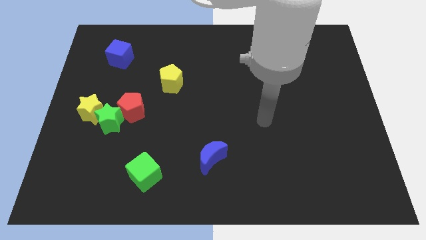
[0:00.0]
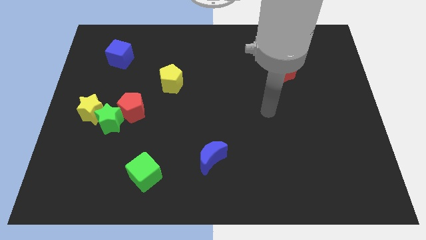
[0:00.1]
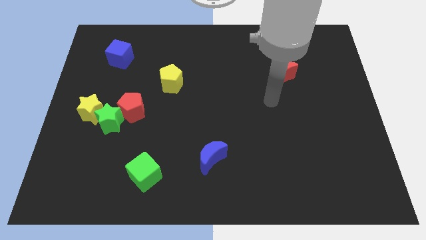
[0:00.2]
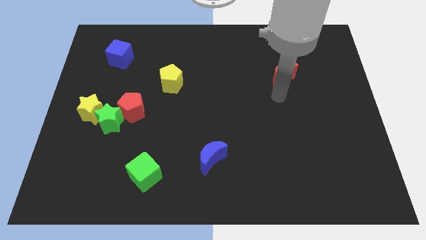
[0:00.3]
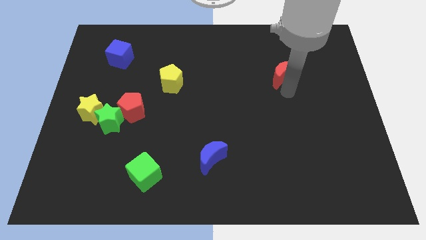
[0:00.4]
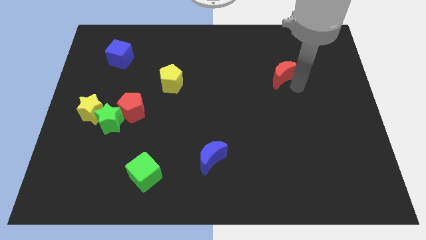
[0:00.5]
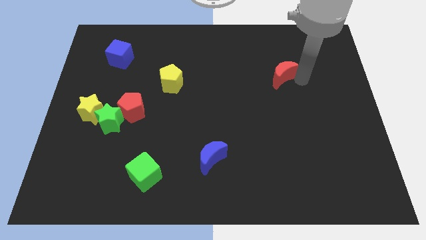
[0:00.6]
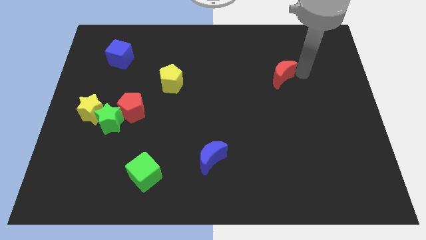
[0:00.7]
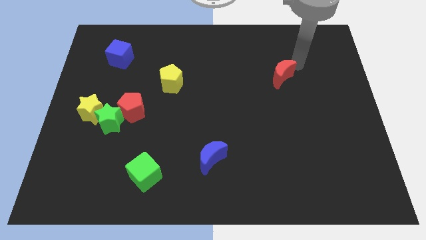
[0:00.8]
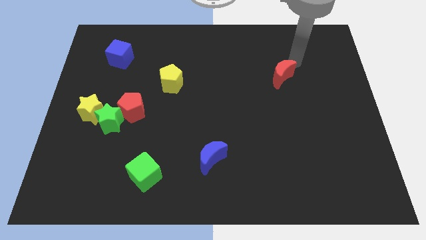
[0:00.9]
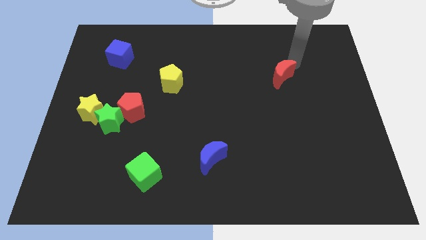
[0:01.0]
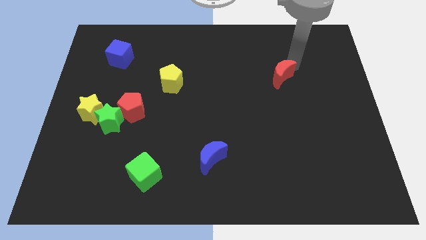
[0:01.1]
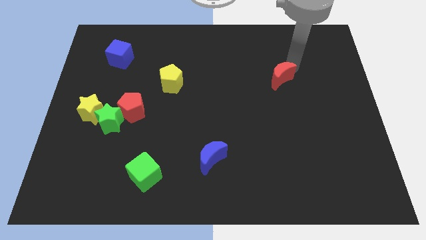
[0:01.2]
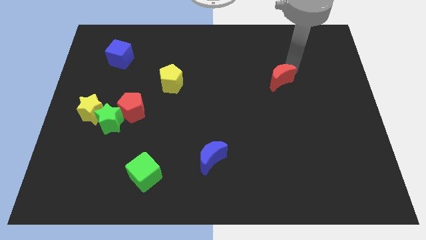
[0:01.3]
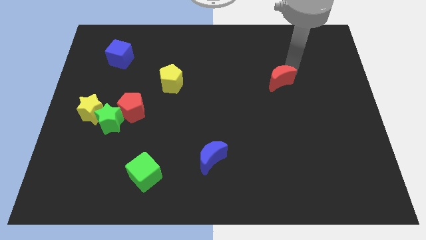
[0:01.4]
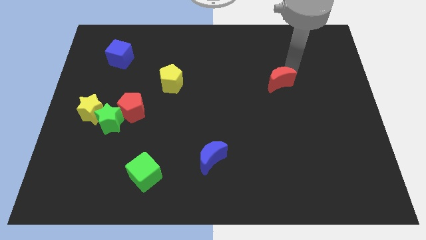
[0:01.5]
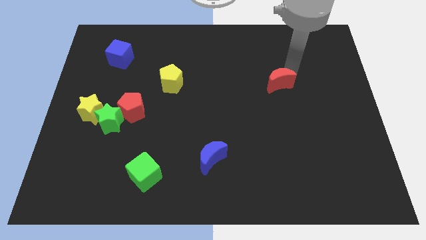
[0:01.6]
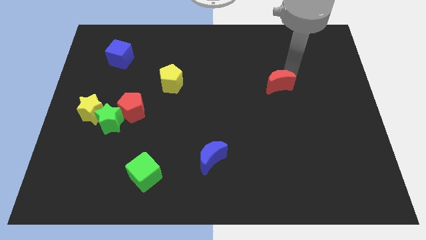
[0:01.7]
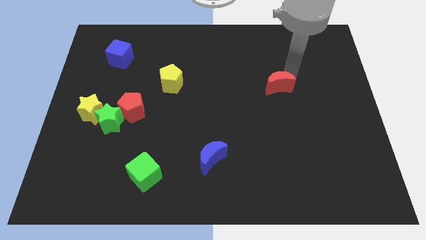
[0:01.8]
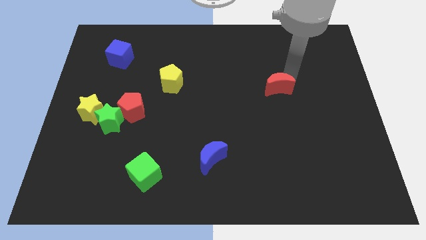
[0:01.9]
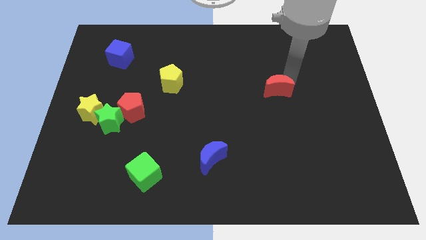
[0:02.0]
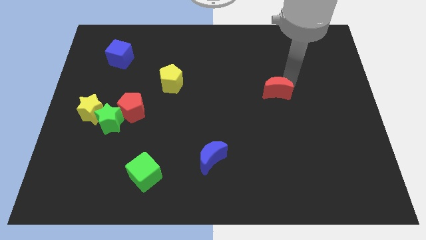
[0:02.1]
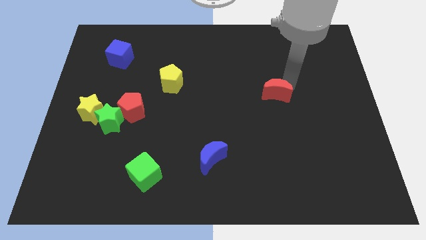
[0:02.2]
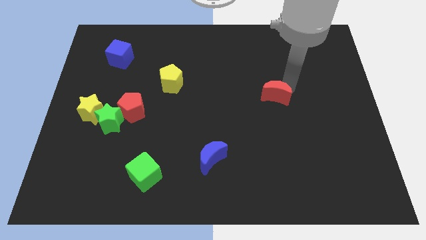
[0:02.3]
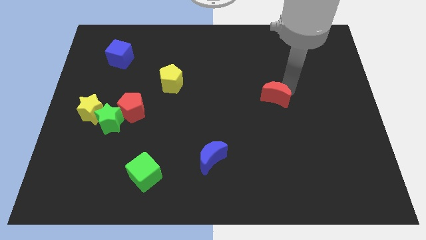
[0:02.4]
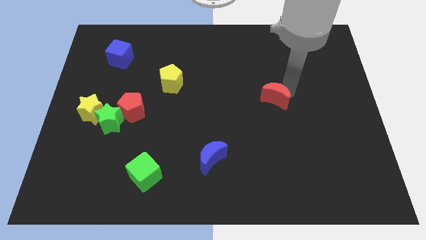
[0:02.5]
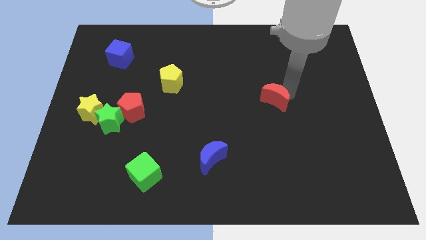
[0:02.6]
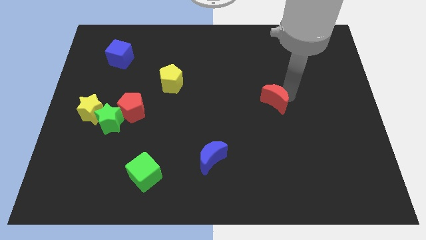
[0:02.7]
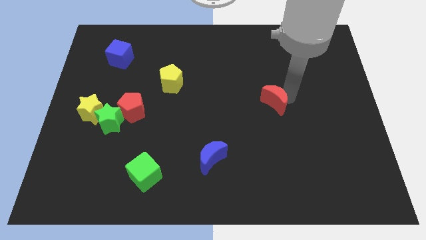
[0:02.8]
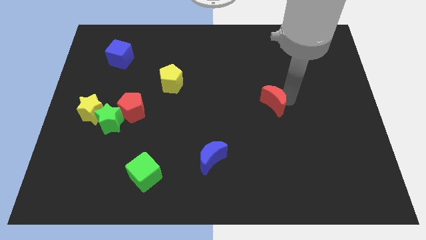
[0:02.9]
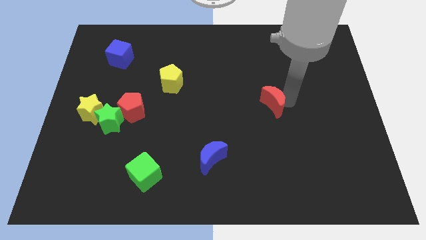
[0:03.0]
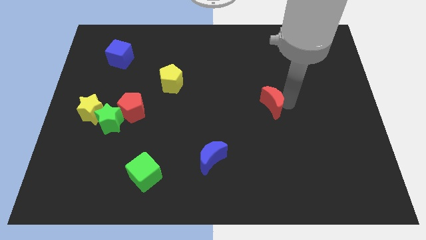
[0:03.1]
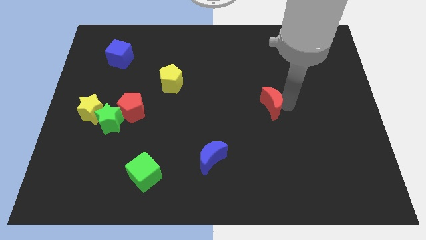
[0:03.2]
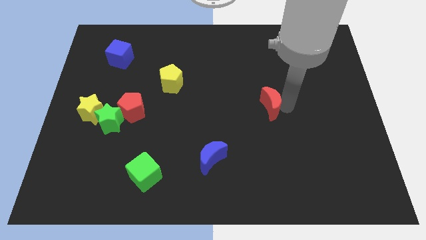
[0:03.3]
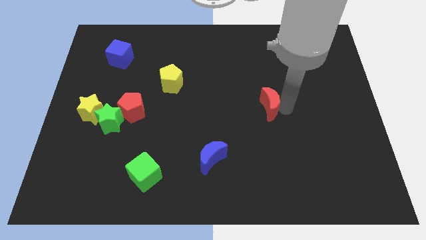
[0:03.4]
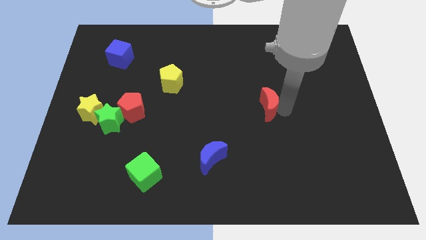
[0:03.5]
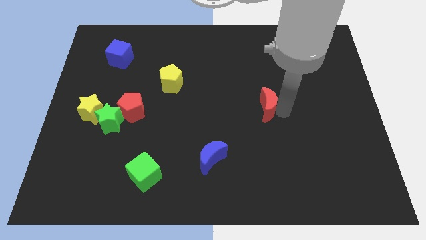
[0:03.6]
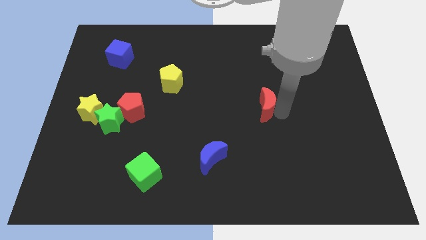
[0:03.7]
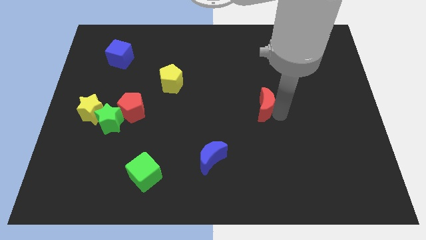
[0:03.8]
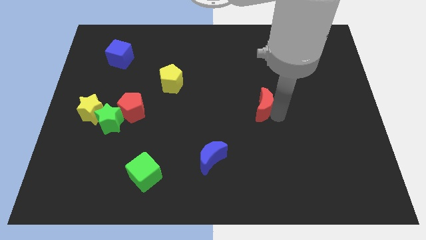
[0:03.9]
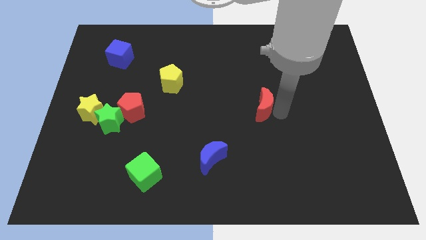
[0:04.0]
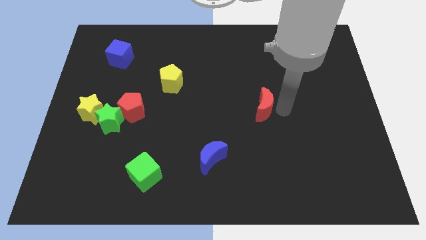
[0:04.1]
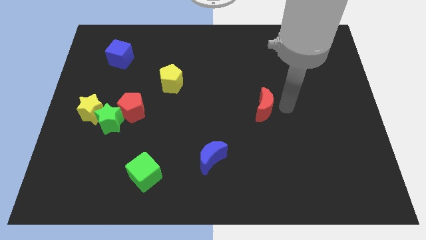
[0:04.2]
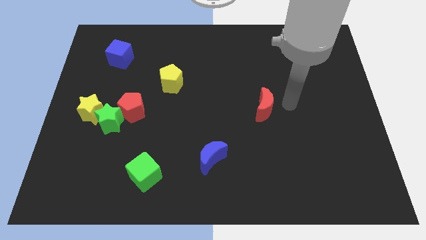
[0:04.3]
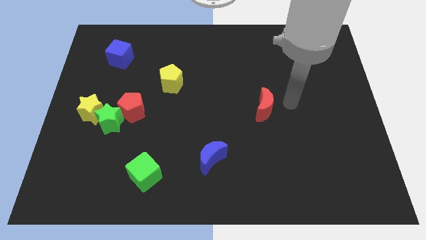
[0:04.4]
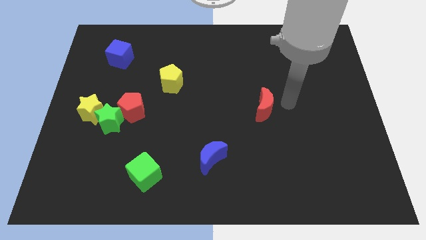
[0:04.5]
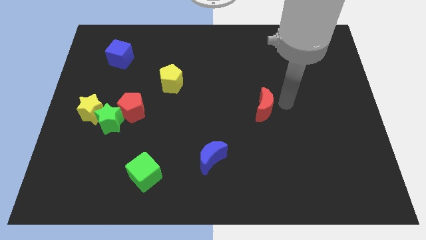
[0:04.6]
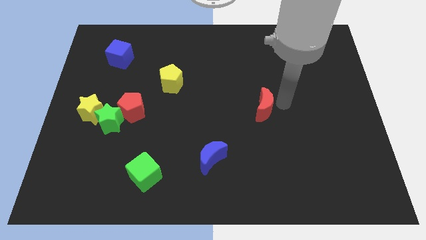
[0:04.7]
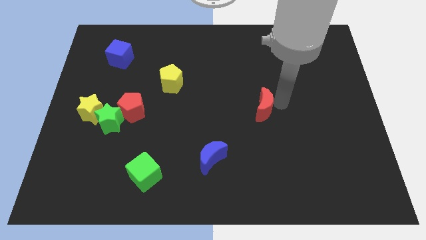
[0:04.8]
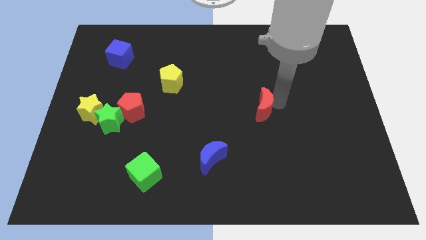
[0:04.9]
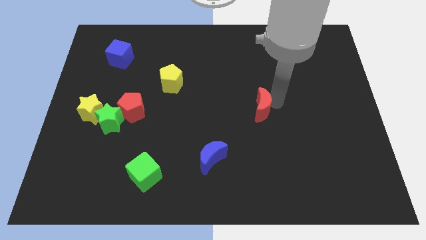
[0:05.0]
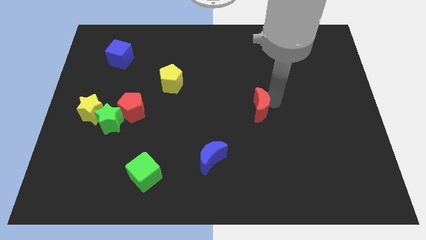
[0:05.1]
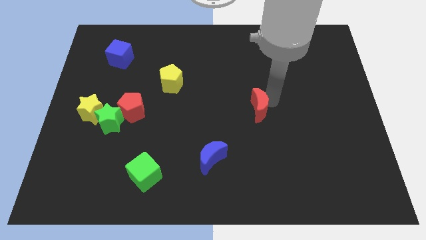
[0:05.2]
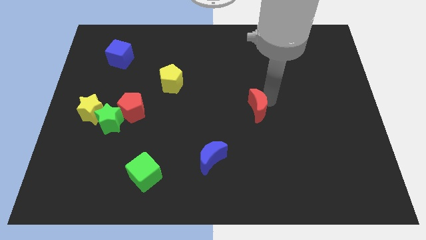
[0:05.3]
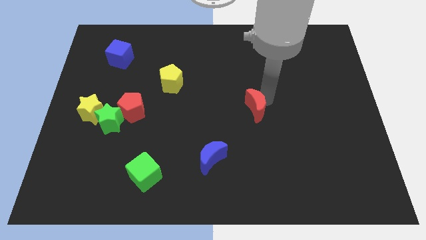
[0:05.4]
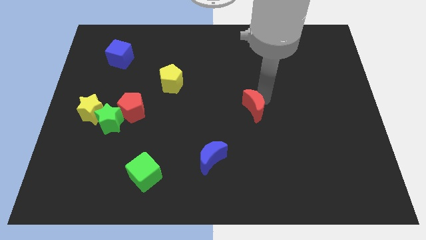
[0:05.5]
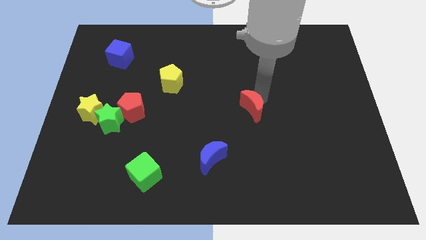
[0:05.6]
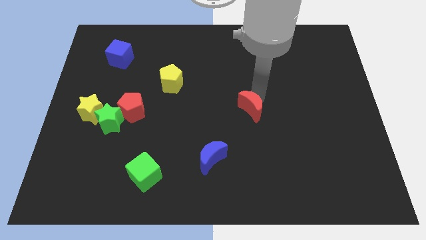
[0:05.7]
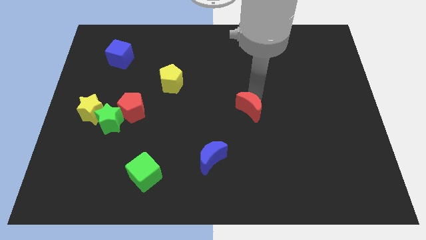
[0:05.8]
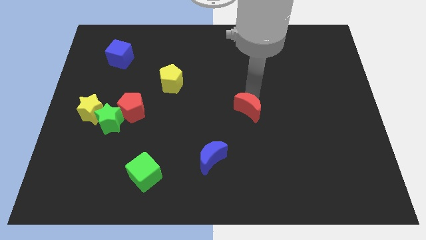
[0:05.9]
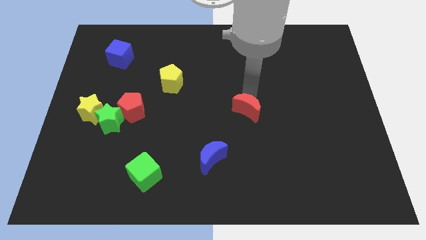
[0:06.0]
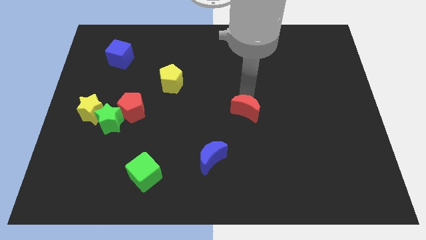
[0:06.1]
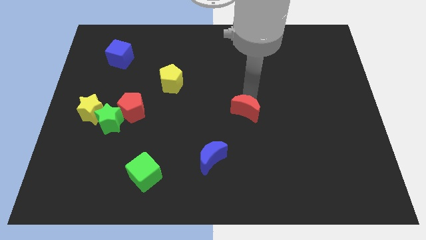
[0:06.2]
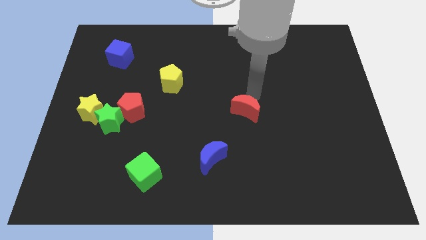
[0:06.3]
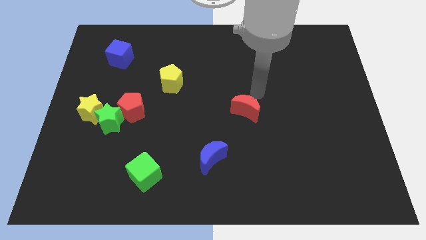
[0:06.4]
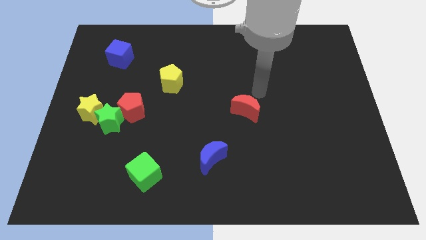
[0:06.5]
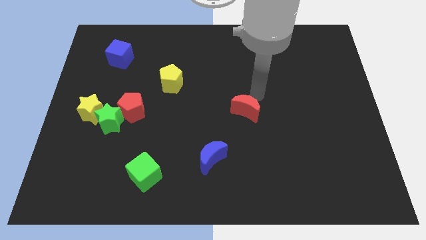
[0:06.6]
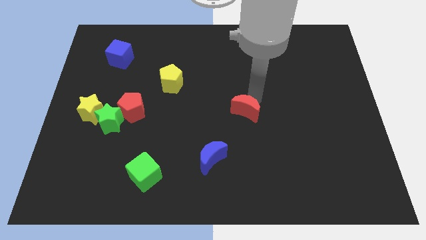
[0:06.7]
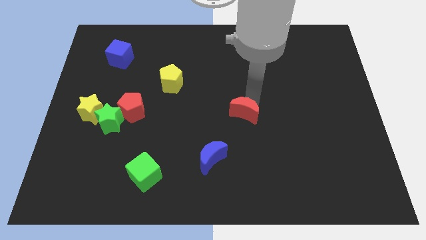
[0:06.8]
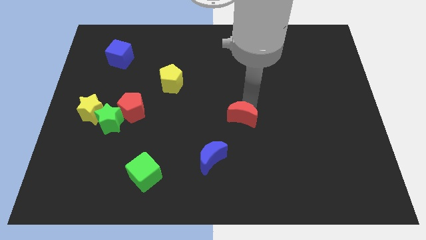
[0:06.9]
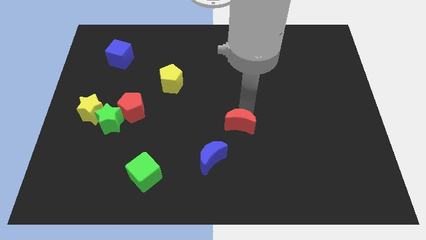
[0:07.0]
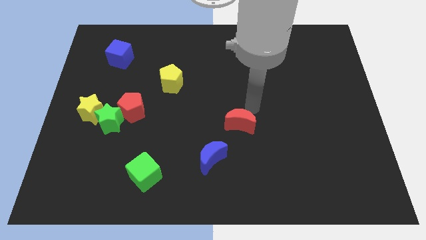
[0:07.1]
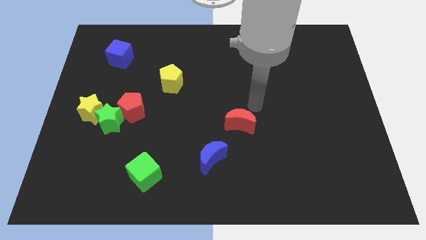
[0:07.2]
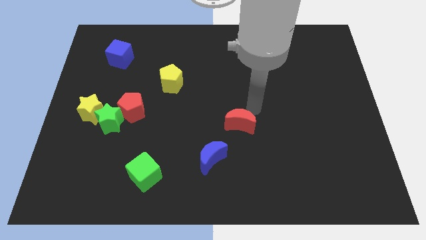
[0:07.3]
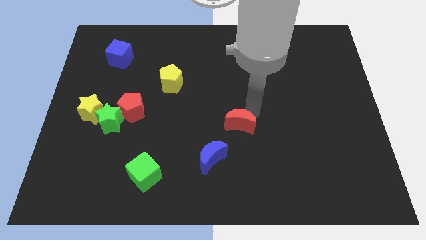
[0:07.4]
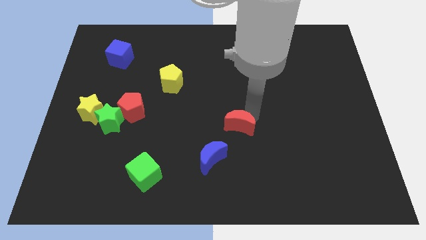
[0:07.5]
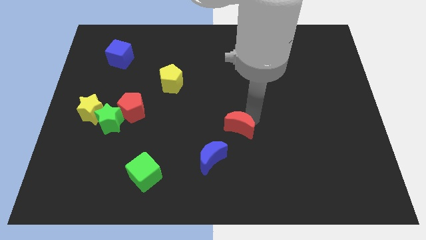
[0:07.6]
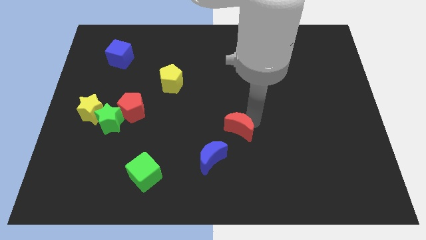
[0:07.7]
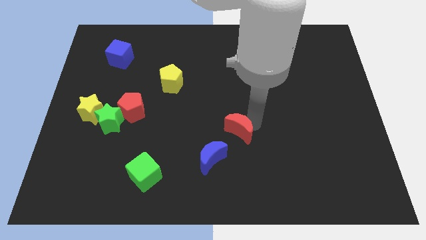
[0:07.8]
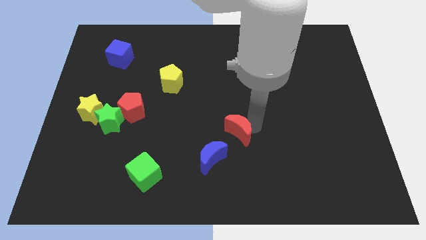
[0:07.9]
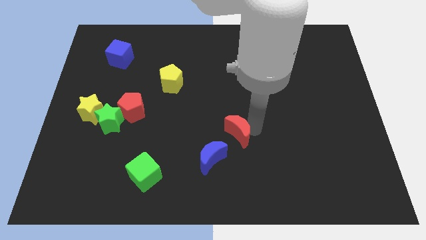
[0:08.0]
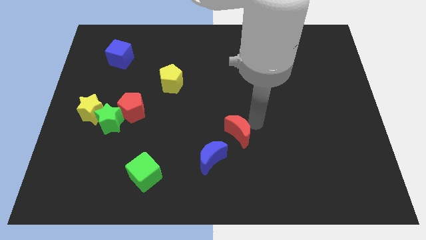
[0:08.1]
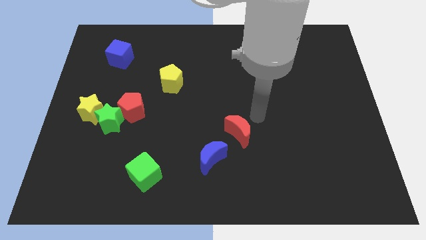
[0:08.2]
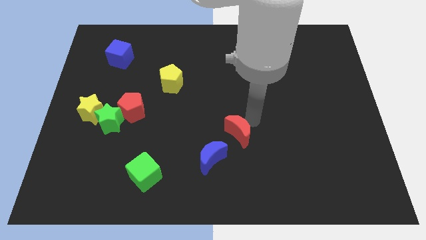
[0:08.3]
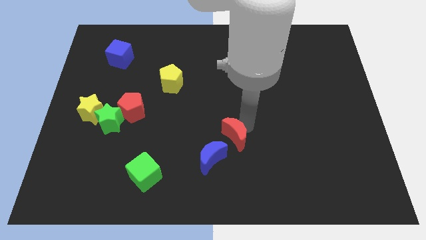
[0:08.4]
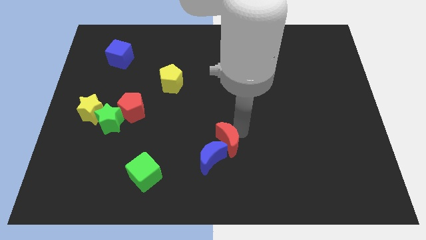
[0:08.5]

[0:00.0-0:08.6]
put the red moon next to the blue moon
